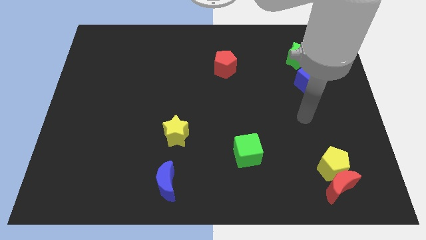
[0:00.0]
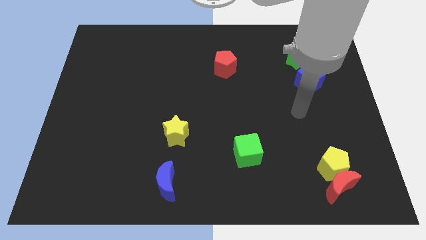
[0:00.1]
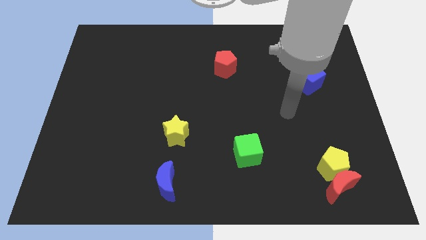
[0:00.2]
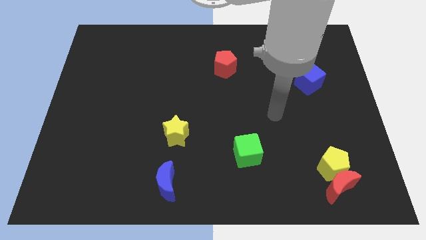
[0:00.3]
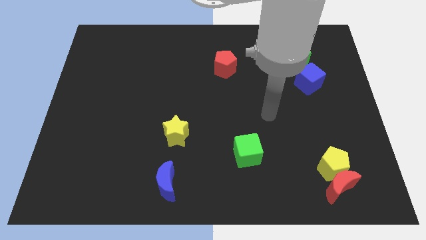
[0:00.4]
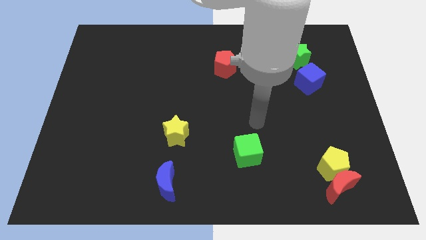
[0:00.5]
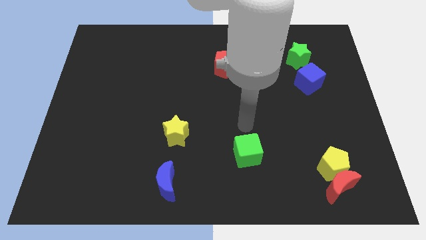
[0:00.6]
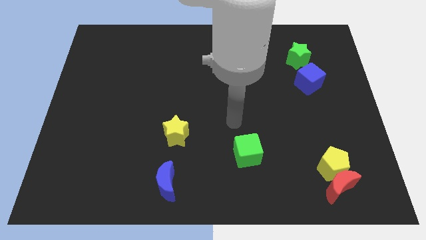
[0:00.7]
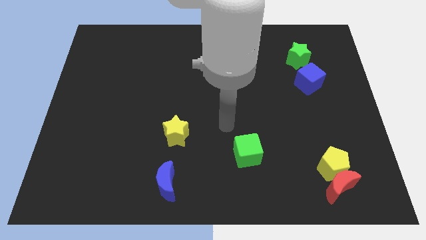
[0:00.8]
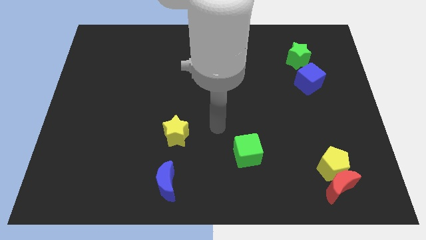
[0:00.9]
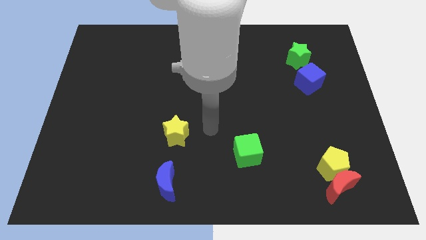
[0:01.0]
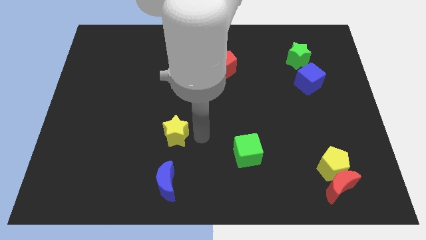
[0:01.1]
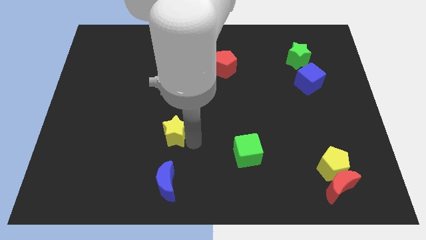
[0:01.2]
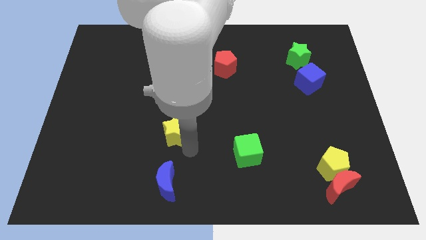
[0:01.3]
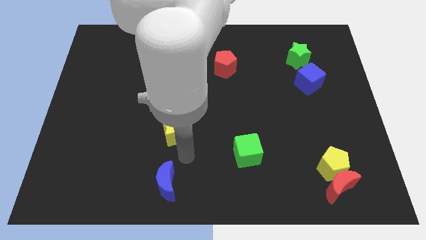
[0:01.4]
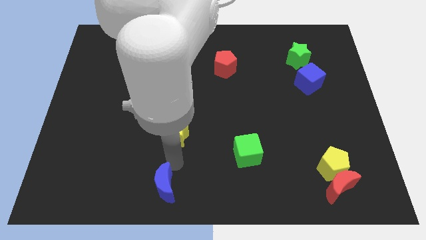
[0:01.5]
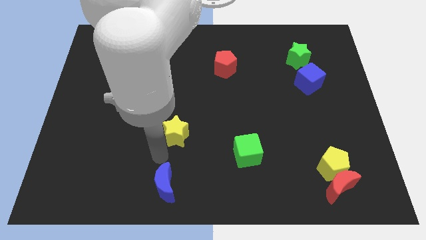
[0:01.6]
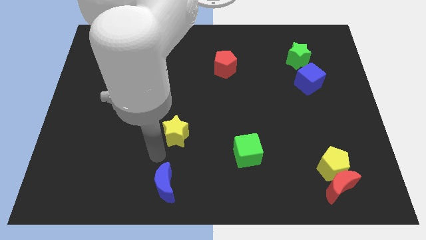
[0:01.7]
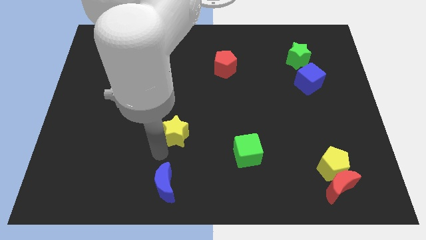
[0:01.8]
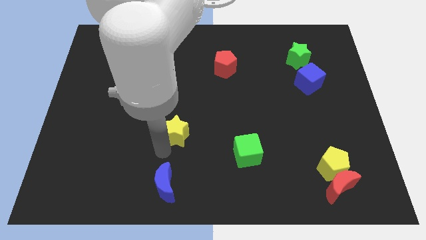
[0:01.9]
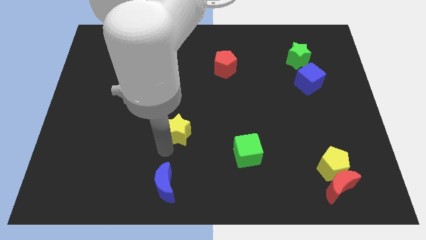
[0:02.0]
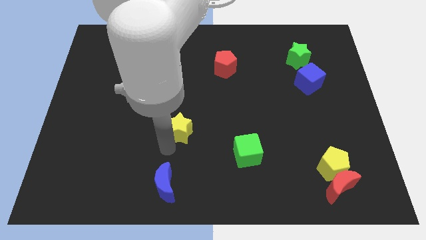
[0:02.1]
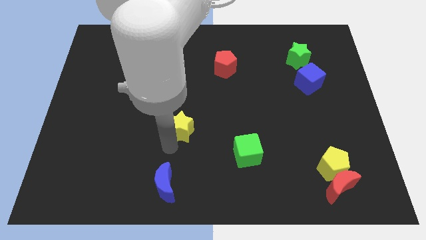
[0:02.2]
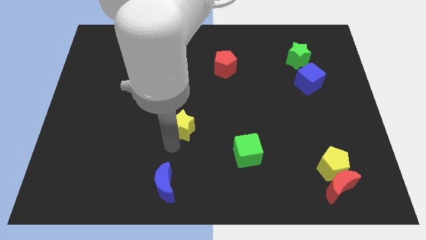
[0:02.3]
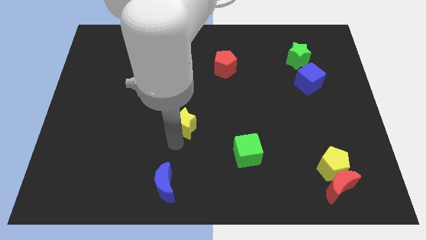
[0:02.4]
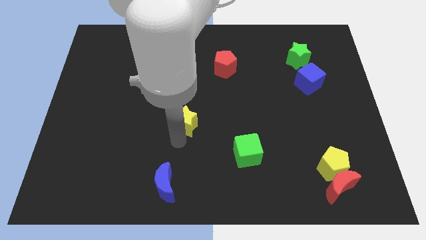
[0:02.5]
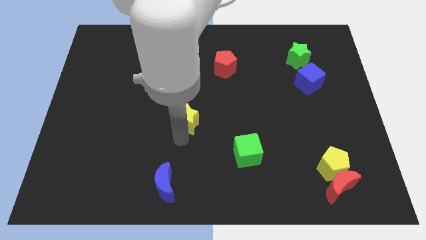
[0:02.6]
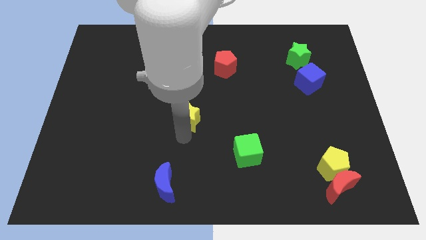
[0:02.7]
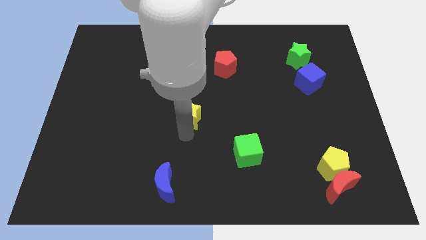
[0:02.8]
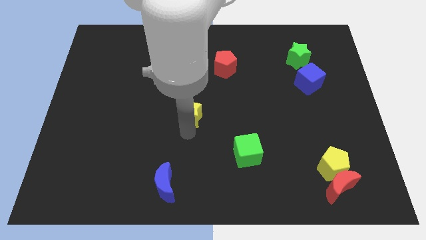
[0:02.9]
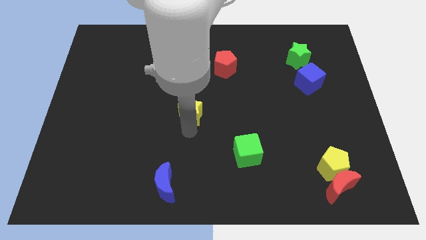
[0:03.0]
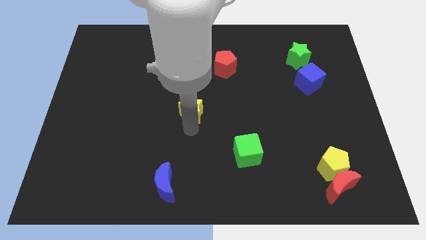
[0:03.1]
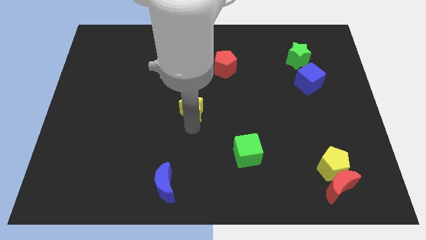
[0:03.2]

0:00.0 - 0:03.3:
push the yellow star slightly diagonally up and to the right

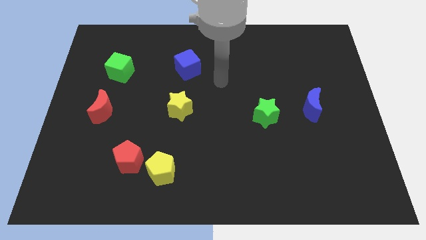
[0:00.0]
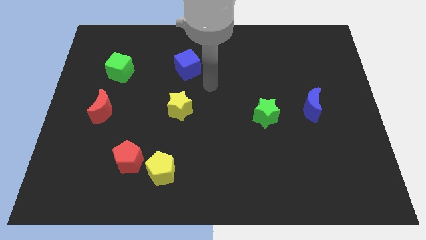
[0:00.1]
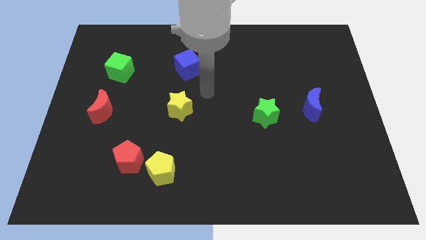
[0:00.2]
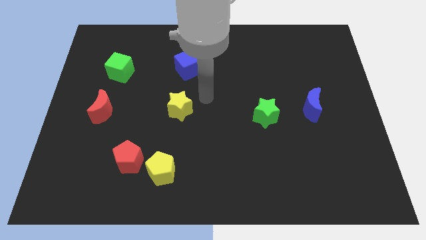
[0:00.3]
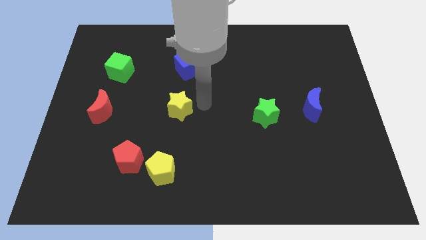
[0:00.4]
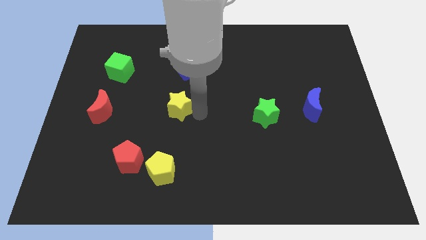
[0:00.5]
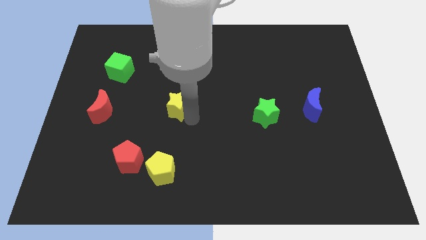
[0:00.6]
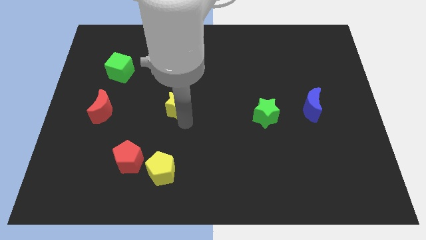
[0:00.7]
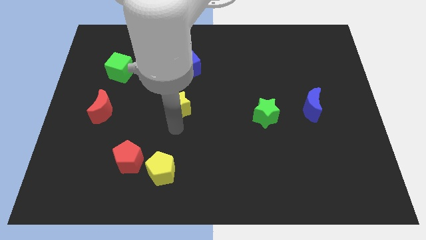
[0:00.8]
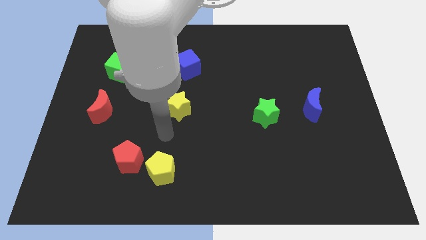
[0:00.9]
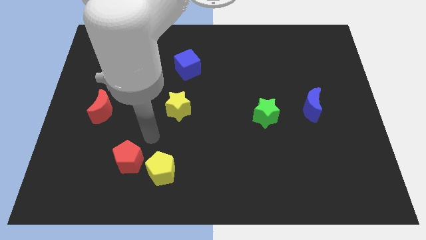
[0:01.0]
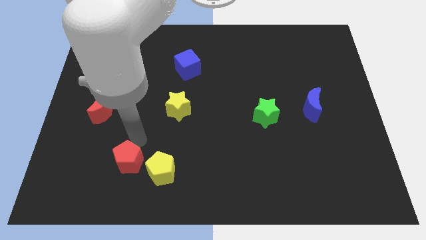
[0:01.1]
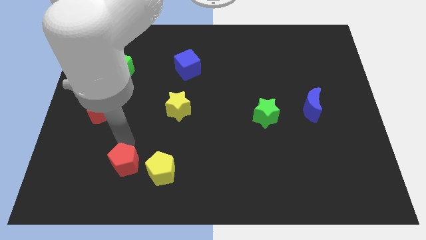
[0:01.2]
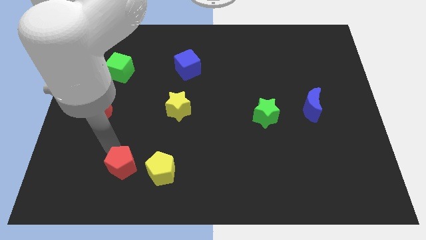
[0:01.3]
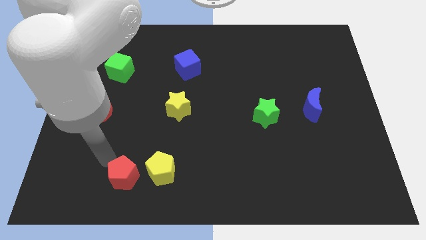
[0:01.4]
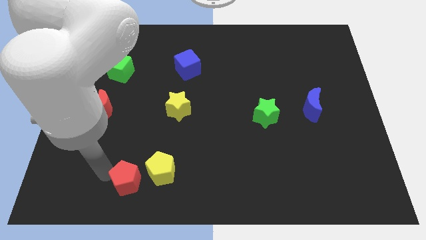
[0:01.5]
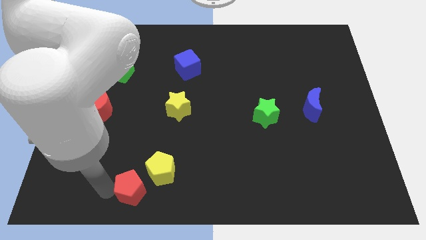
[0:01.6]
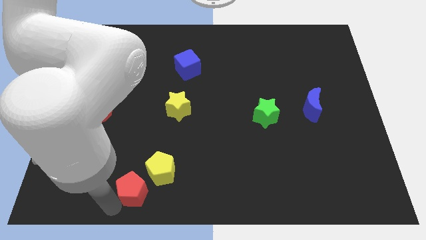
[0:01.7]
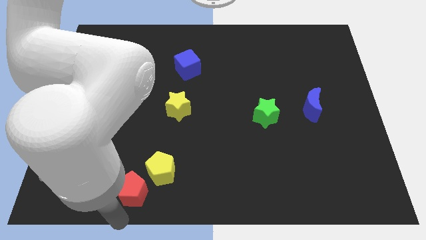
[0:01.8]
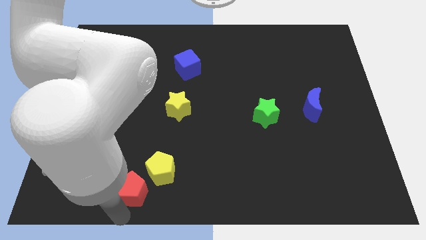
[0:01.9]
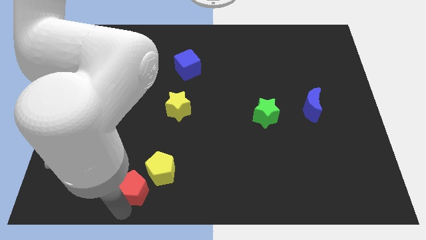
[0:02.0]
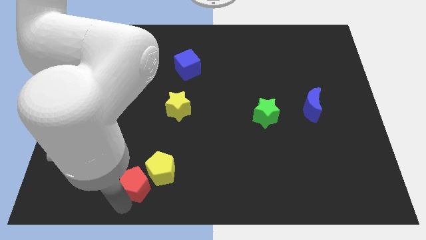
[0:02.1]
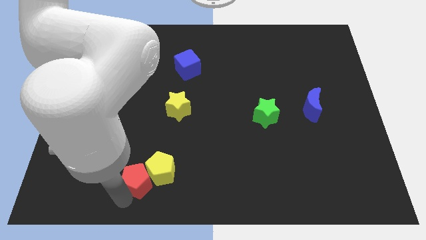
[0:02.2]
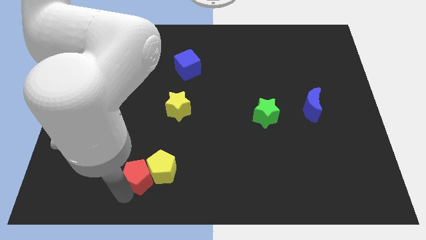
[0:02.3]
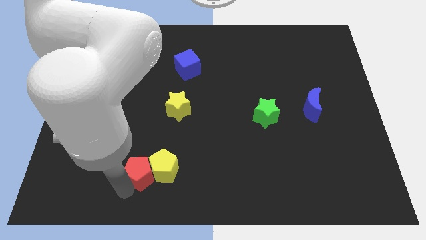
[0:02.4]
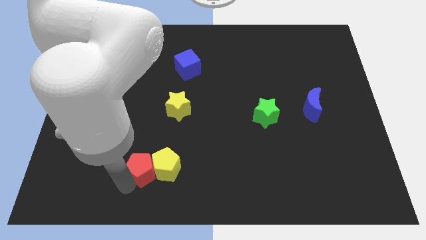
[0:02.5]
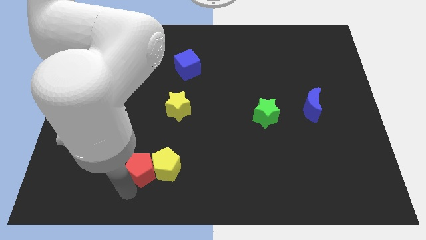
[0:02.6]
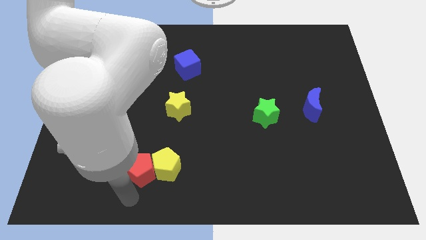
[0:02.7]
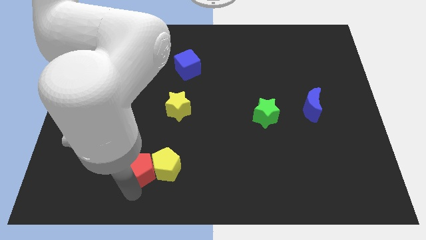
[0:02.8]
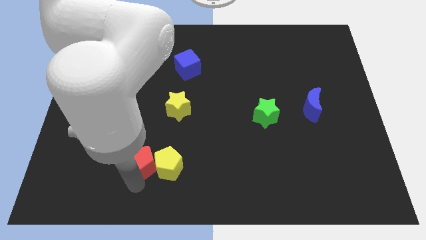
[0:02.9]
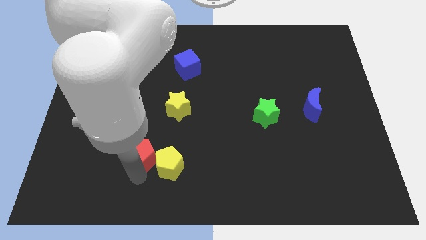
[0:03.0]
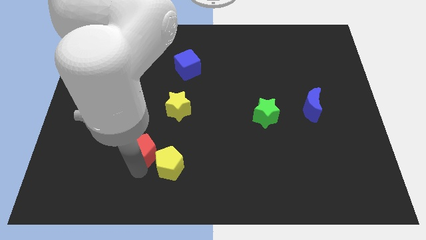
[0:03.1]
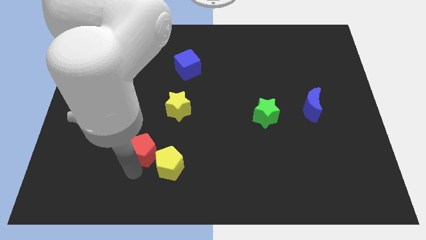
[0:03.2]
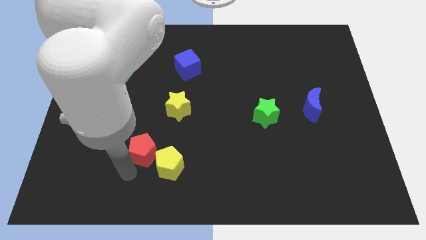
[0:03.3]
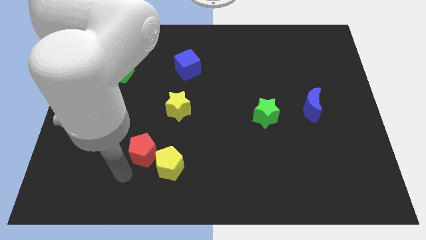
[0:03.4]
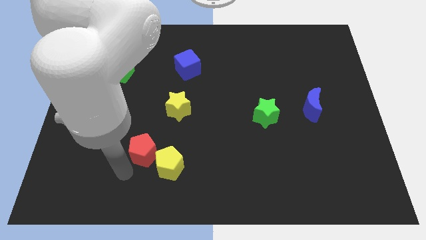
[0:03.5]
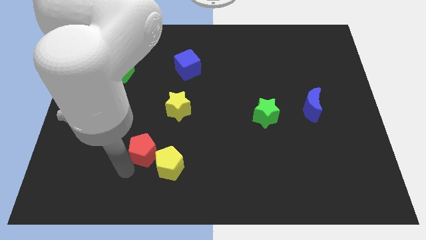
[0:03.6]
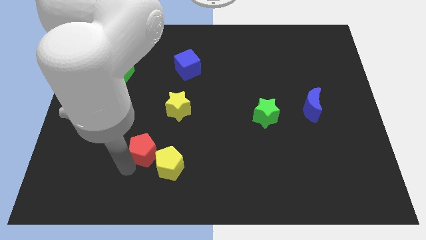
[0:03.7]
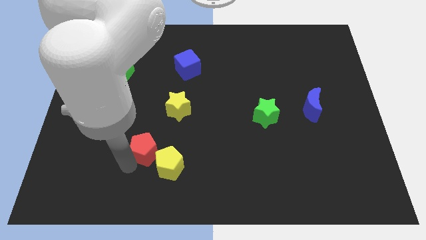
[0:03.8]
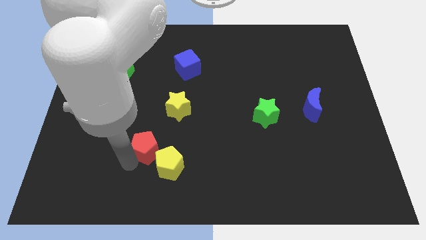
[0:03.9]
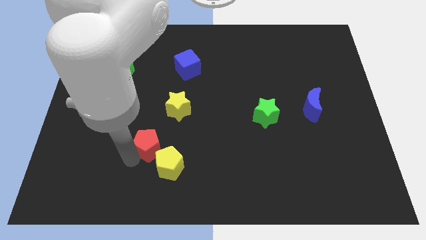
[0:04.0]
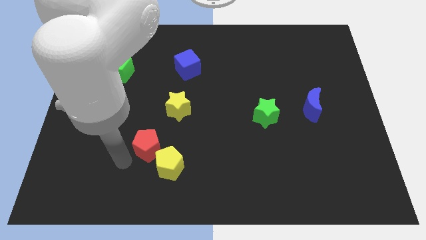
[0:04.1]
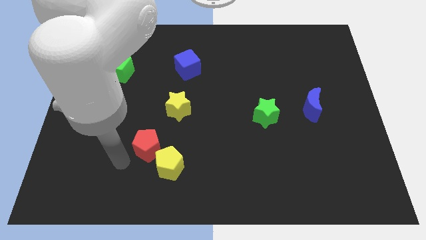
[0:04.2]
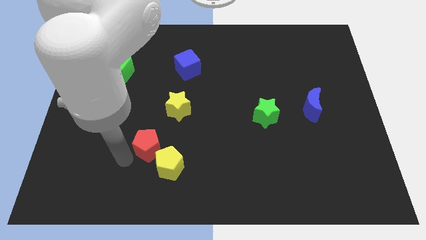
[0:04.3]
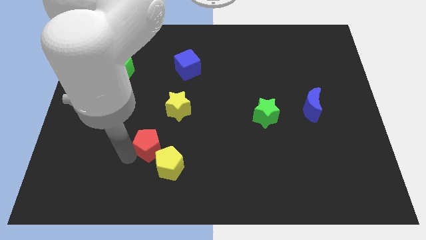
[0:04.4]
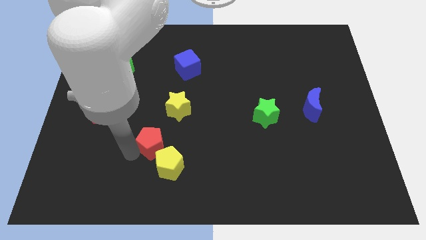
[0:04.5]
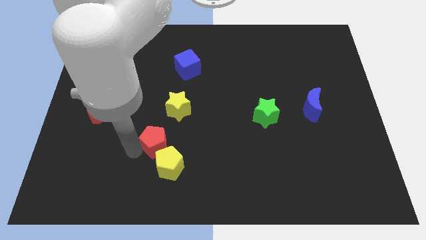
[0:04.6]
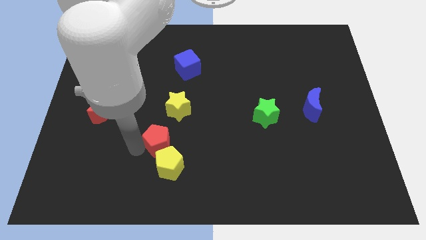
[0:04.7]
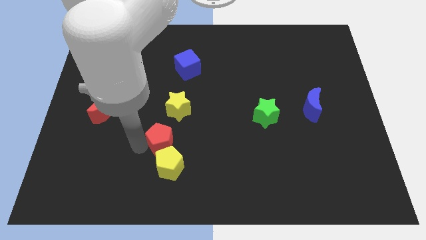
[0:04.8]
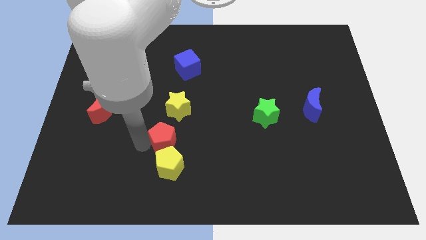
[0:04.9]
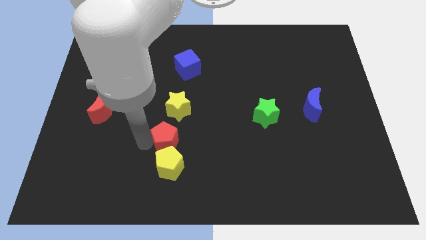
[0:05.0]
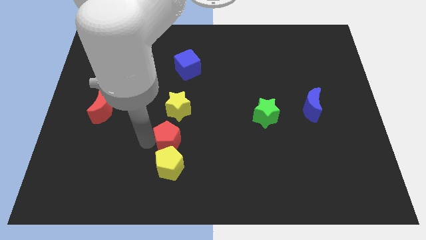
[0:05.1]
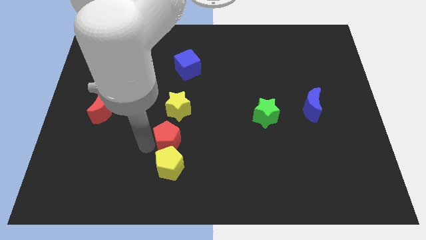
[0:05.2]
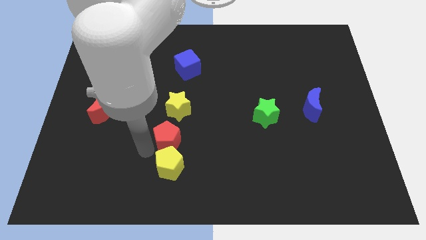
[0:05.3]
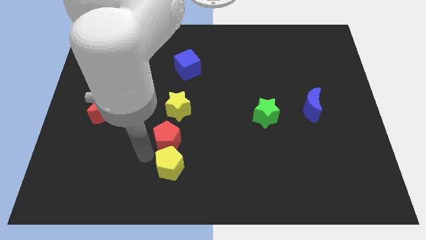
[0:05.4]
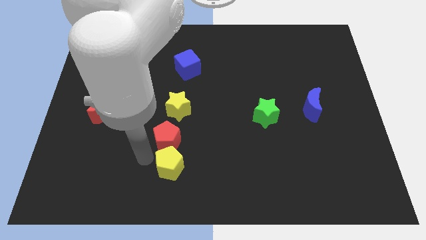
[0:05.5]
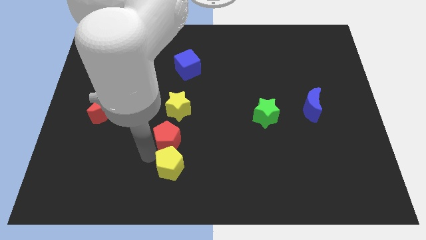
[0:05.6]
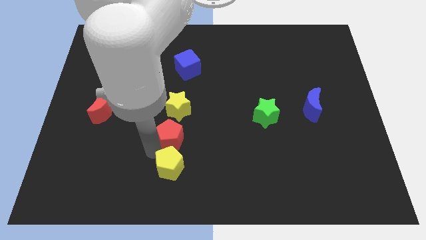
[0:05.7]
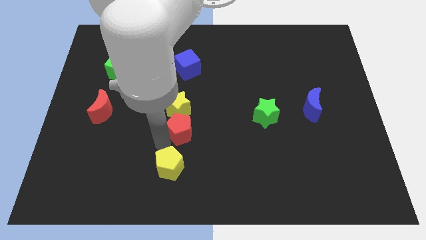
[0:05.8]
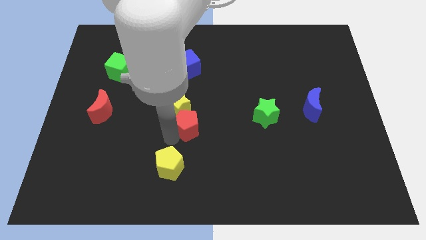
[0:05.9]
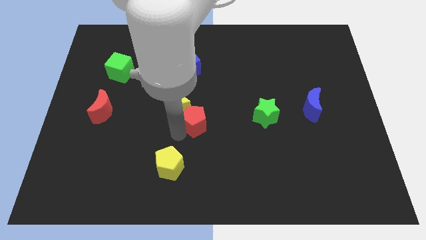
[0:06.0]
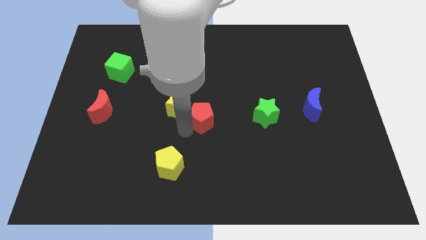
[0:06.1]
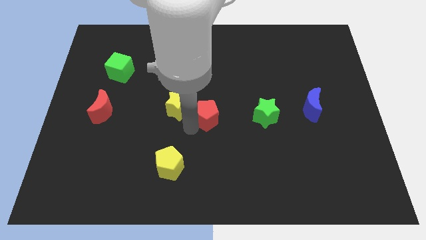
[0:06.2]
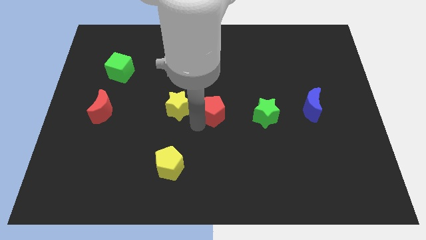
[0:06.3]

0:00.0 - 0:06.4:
slide the red pentagon up and right diagonally
